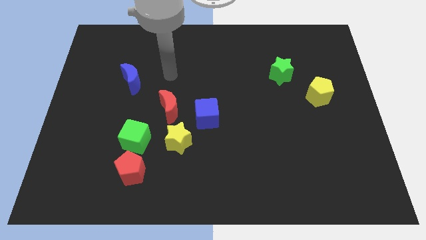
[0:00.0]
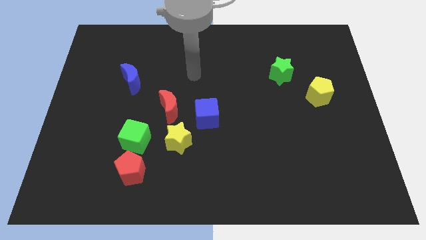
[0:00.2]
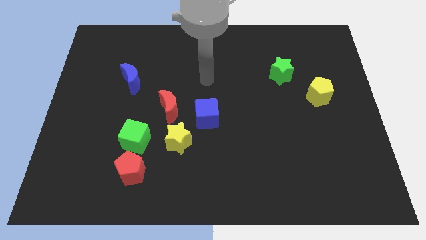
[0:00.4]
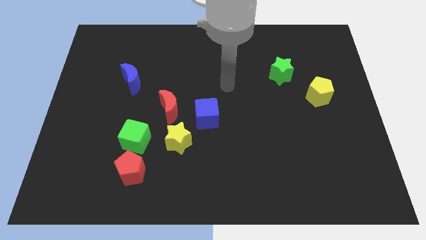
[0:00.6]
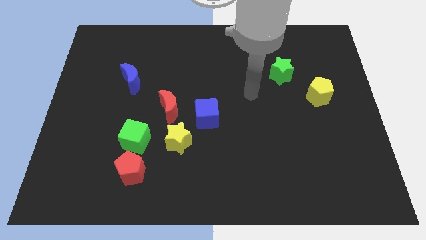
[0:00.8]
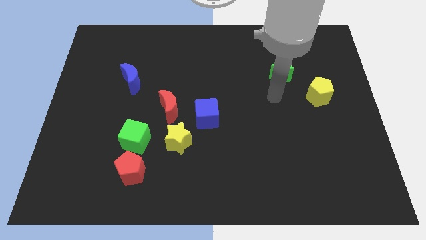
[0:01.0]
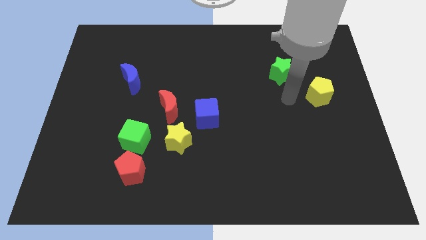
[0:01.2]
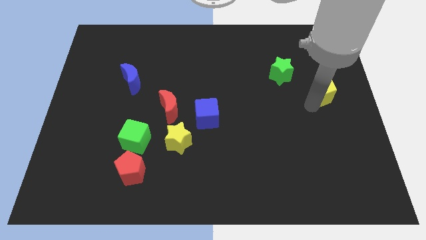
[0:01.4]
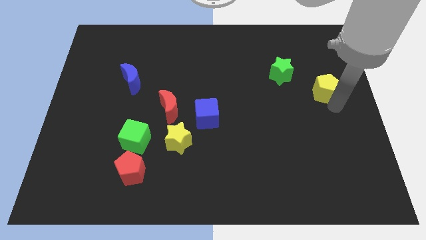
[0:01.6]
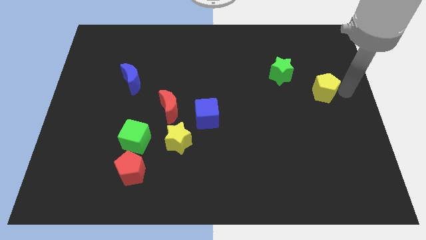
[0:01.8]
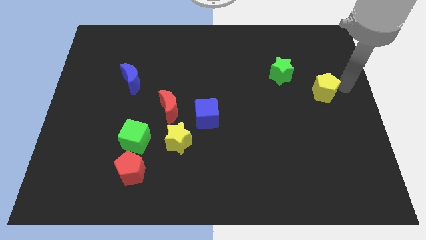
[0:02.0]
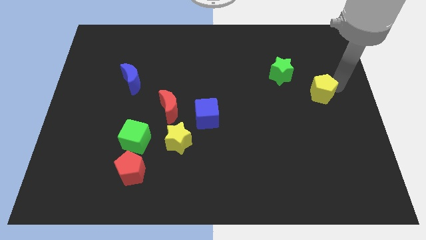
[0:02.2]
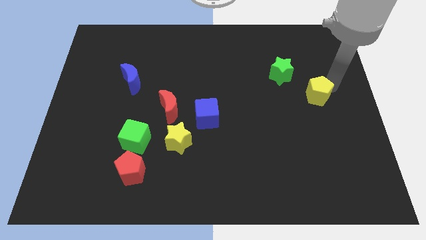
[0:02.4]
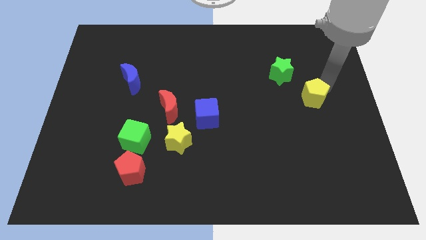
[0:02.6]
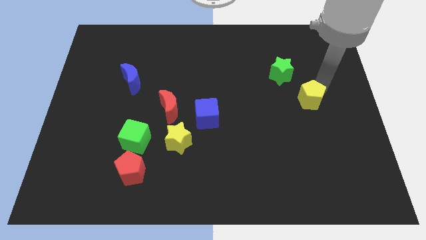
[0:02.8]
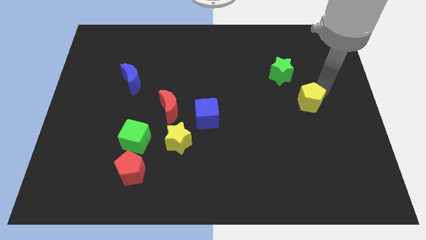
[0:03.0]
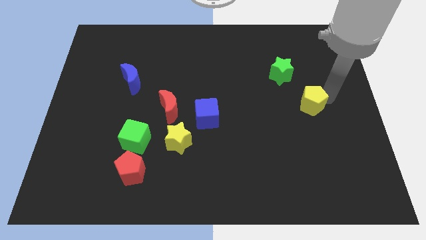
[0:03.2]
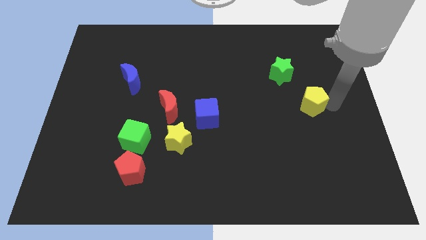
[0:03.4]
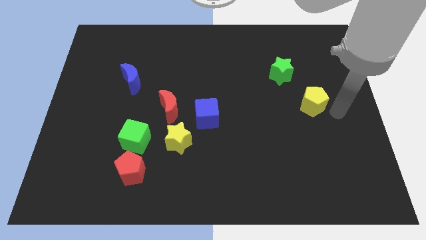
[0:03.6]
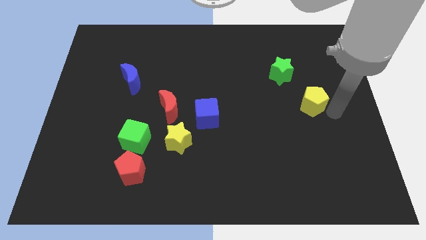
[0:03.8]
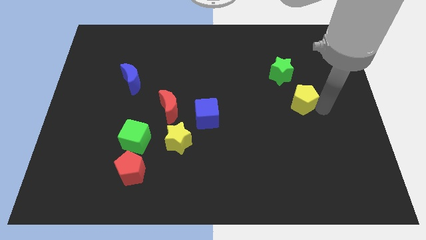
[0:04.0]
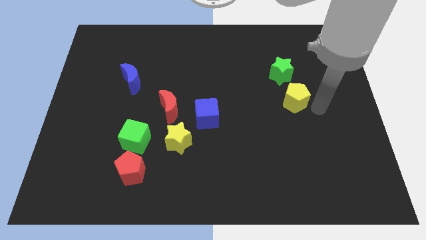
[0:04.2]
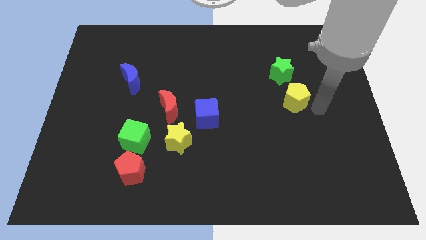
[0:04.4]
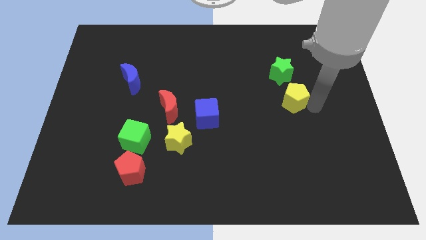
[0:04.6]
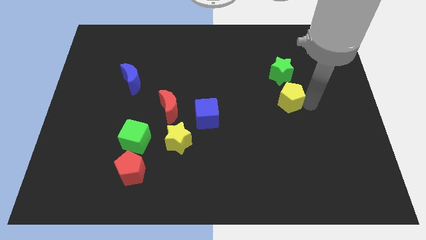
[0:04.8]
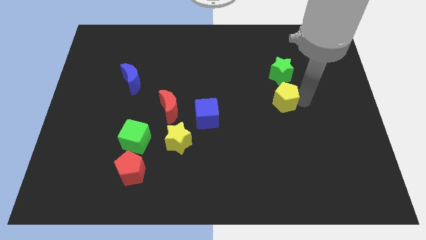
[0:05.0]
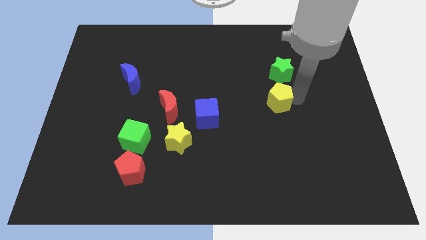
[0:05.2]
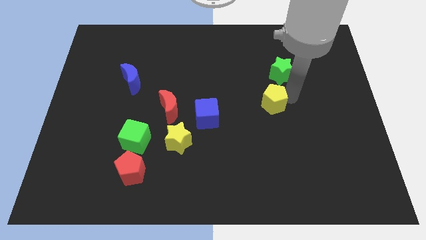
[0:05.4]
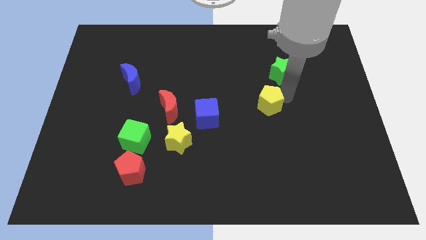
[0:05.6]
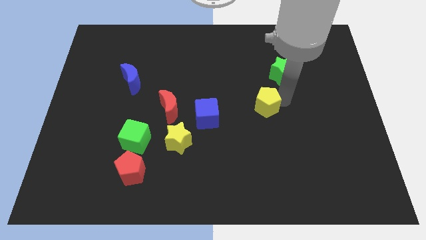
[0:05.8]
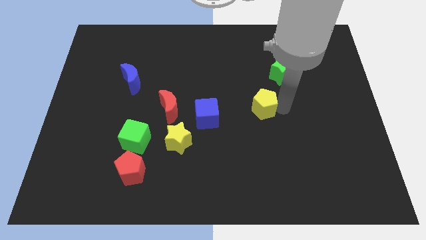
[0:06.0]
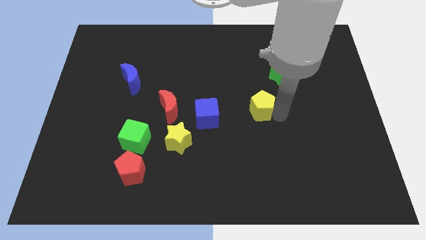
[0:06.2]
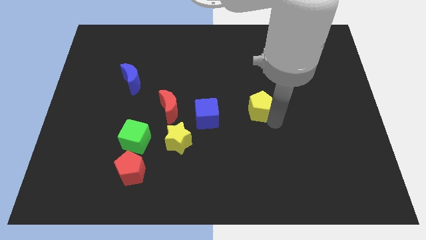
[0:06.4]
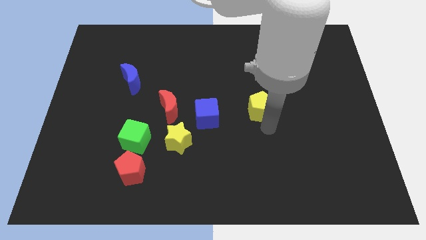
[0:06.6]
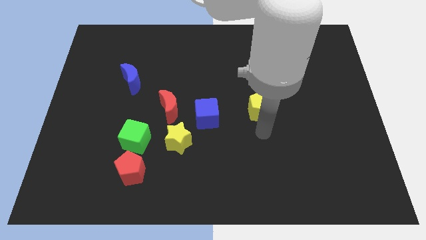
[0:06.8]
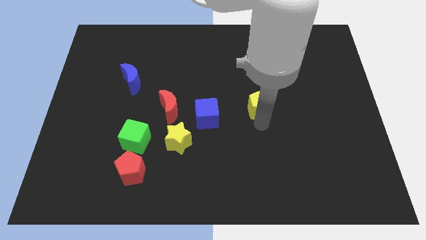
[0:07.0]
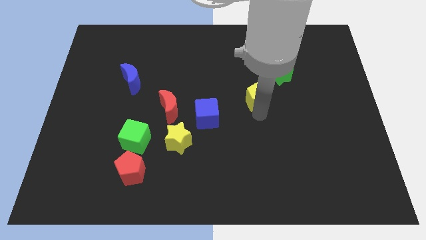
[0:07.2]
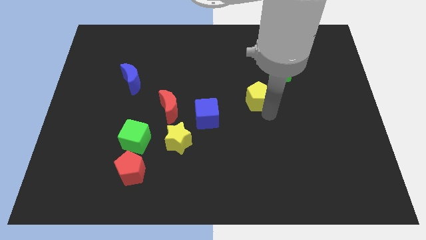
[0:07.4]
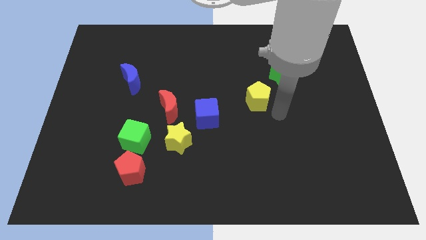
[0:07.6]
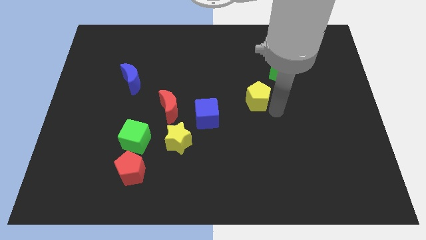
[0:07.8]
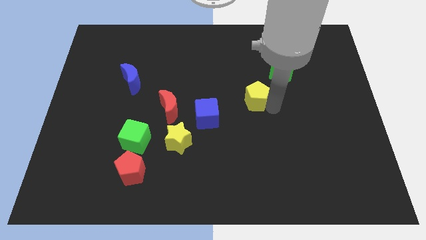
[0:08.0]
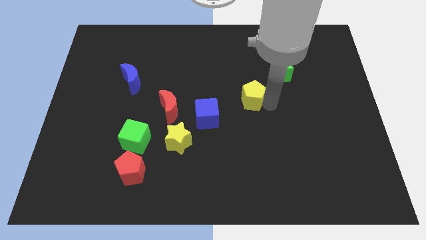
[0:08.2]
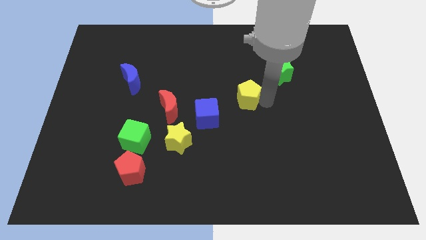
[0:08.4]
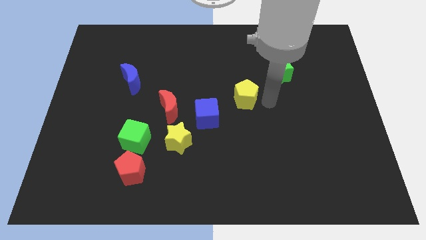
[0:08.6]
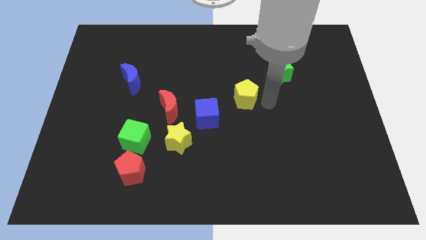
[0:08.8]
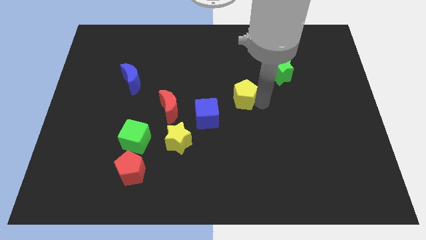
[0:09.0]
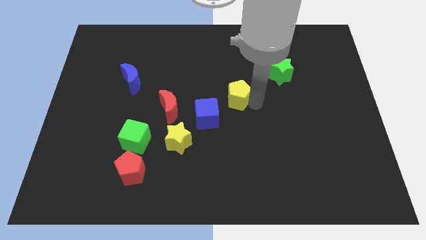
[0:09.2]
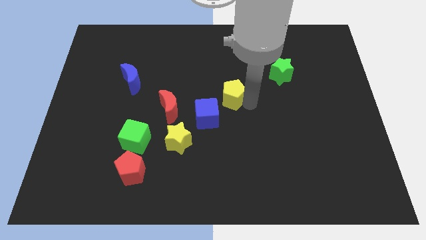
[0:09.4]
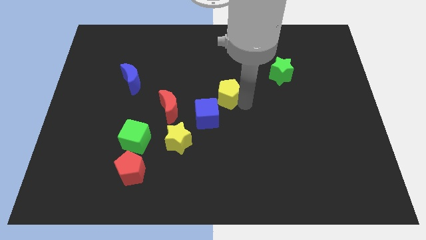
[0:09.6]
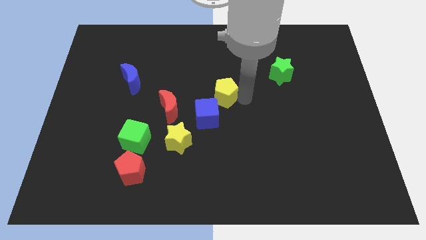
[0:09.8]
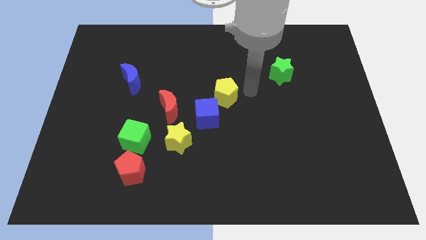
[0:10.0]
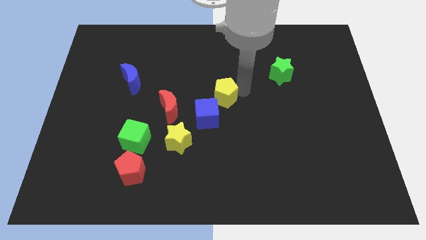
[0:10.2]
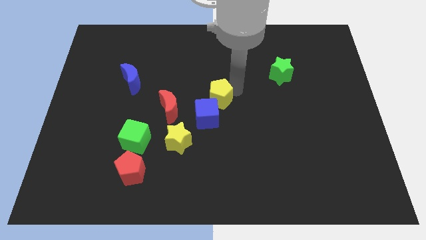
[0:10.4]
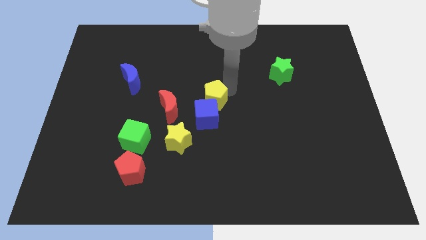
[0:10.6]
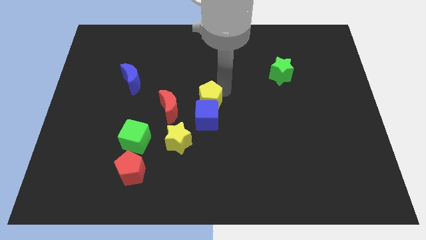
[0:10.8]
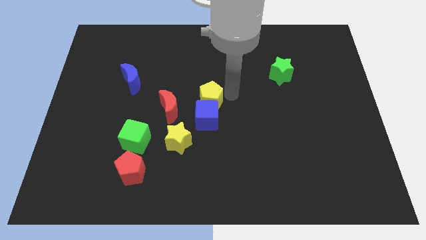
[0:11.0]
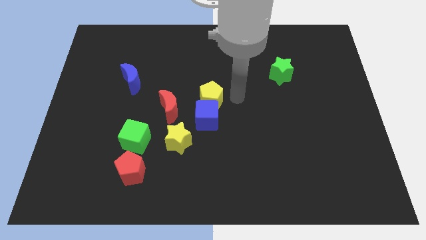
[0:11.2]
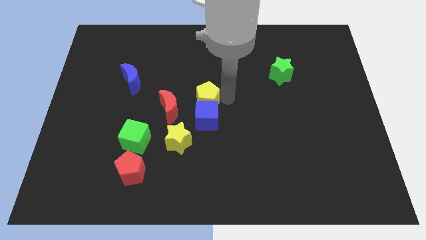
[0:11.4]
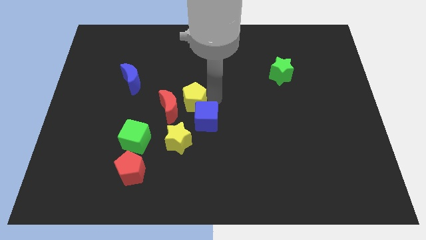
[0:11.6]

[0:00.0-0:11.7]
move the yellow pentagon next to the red moon
